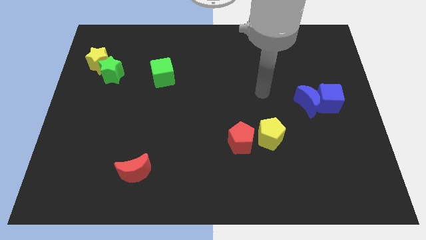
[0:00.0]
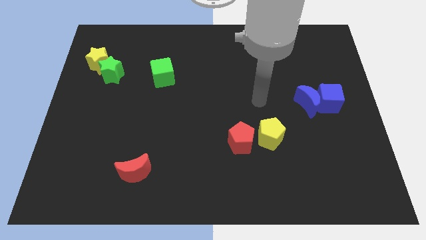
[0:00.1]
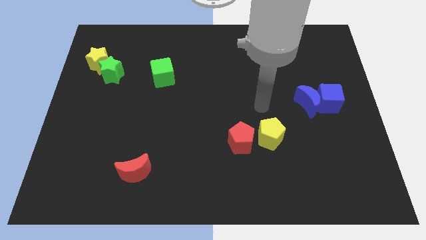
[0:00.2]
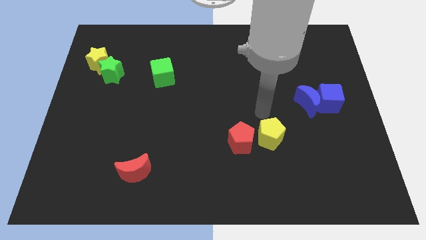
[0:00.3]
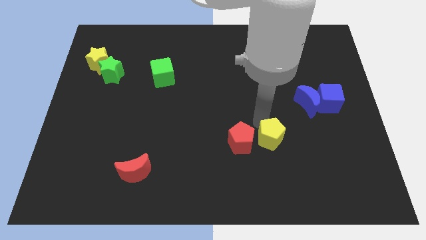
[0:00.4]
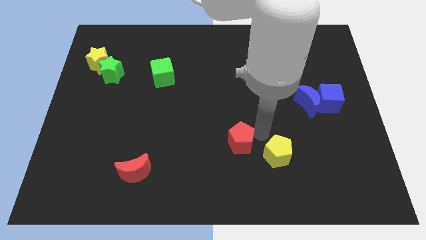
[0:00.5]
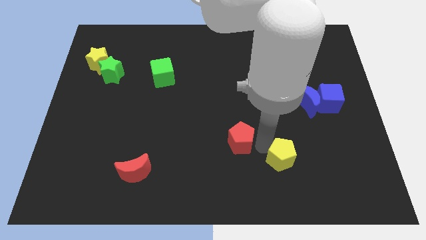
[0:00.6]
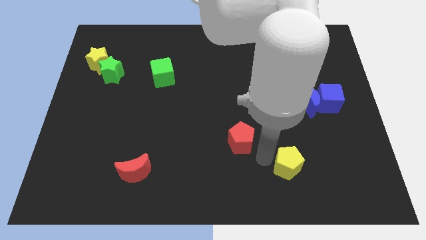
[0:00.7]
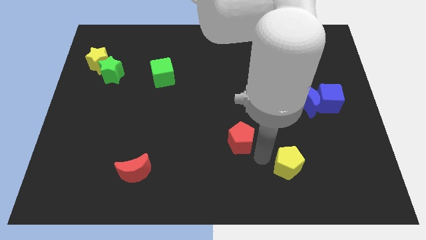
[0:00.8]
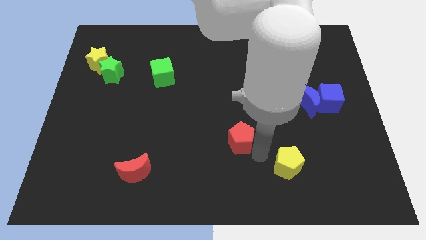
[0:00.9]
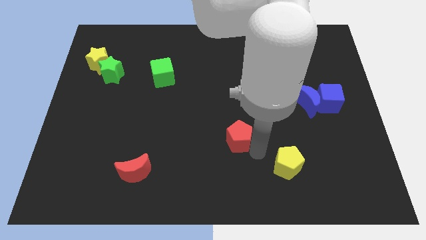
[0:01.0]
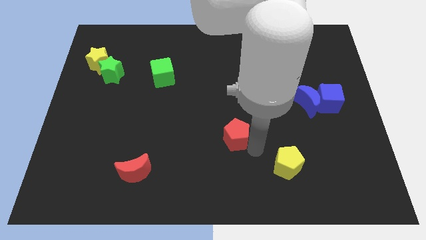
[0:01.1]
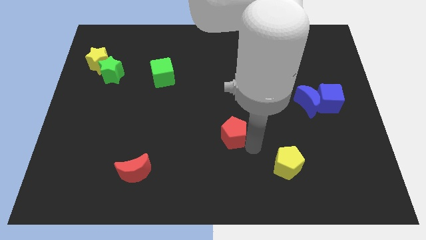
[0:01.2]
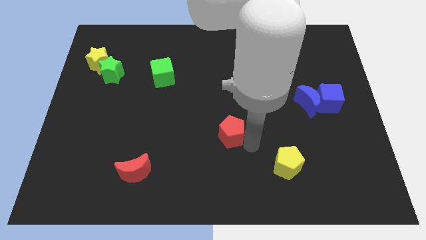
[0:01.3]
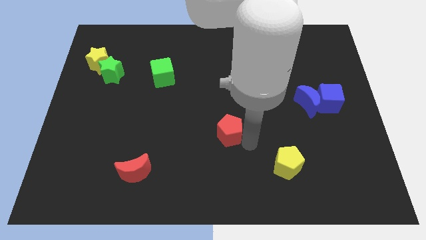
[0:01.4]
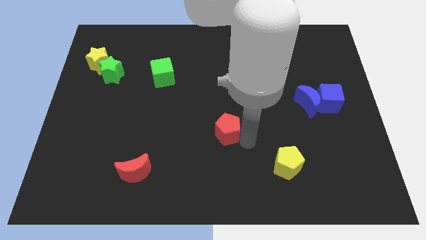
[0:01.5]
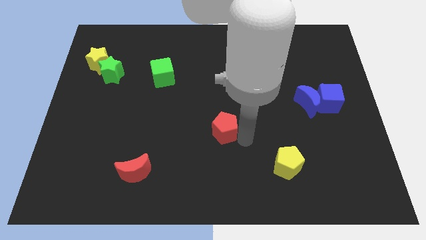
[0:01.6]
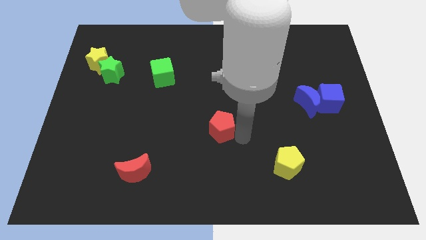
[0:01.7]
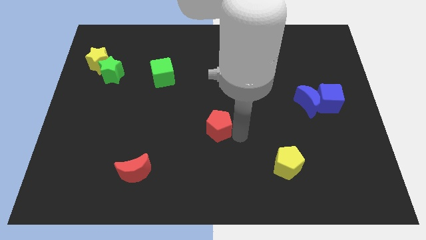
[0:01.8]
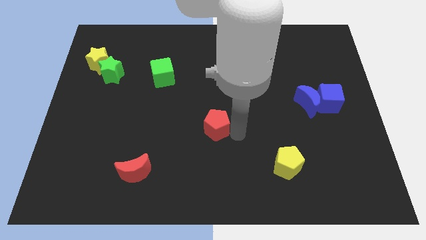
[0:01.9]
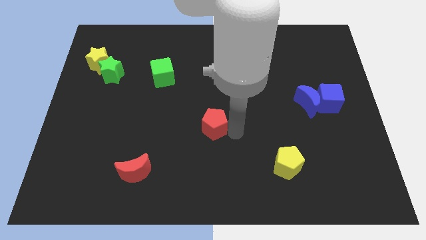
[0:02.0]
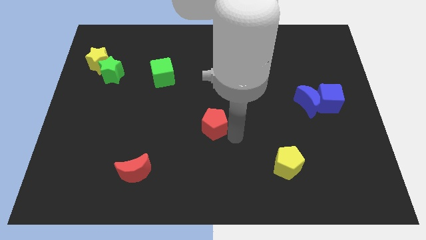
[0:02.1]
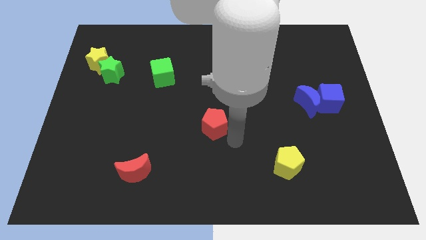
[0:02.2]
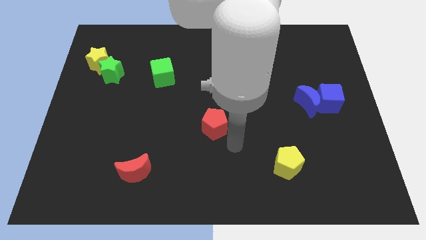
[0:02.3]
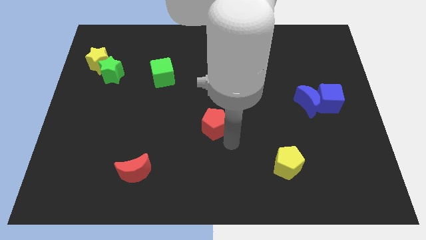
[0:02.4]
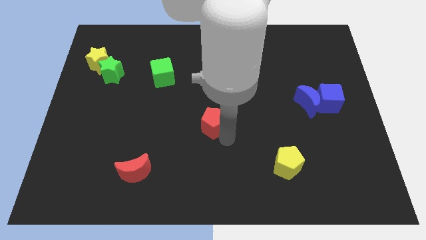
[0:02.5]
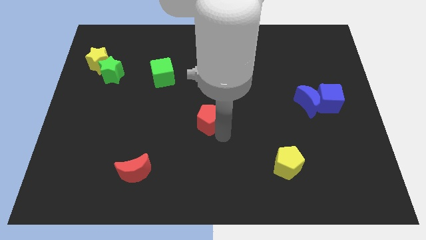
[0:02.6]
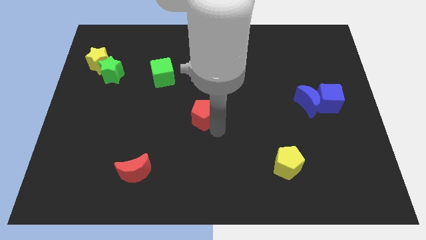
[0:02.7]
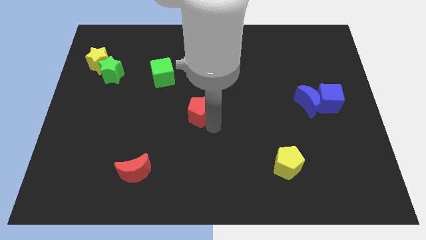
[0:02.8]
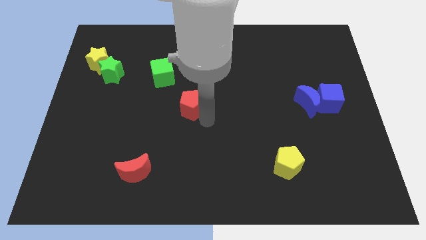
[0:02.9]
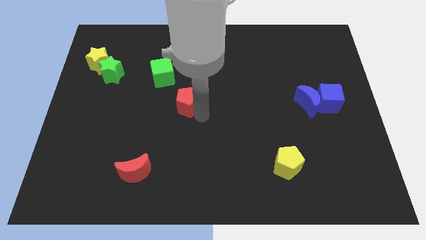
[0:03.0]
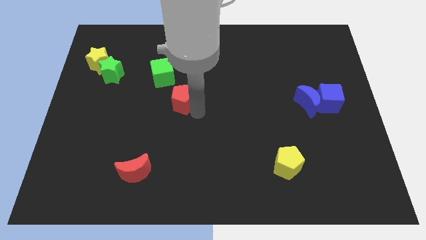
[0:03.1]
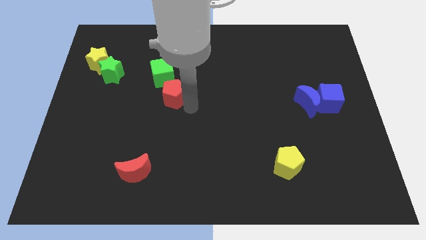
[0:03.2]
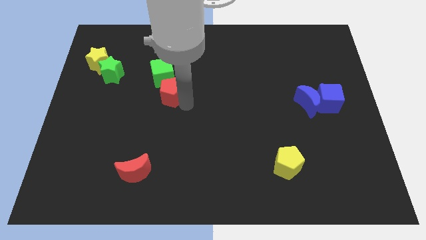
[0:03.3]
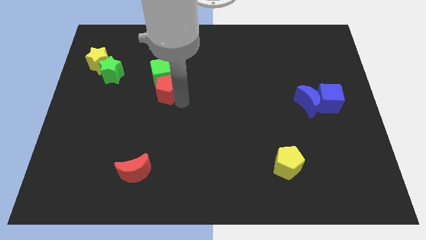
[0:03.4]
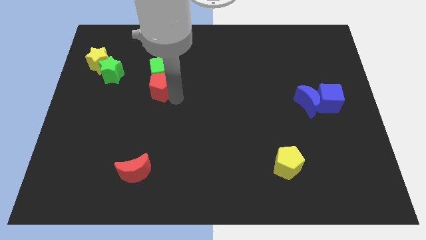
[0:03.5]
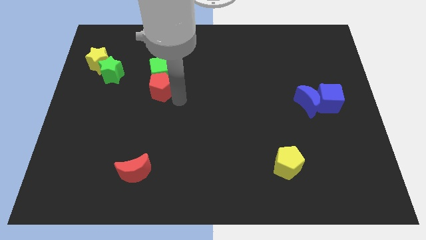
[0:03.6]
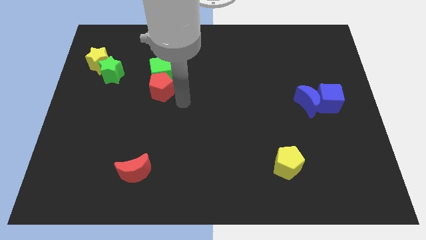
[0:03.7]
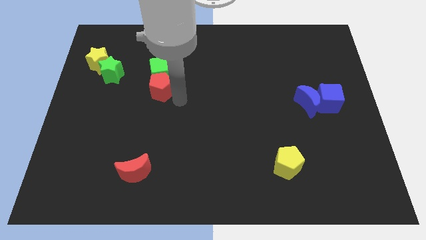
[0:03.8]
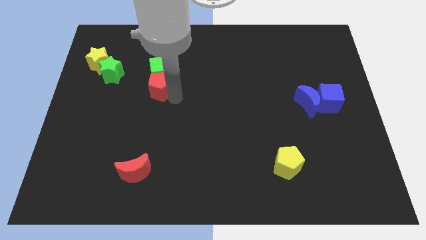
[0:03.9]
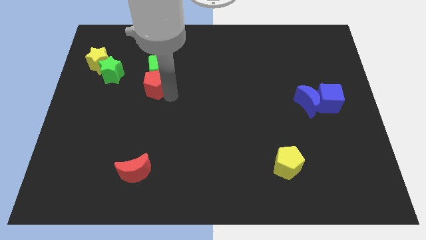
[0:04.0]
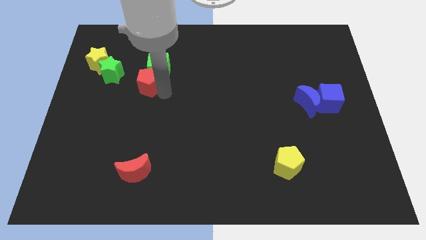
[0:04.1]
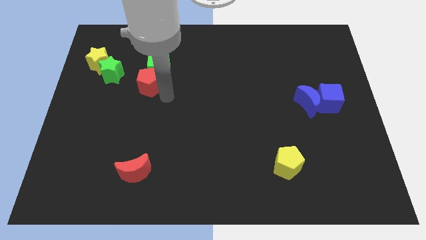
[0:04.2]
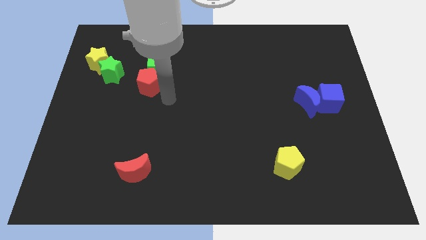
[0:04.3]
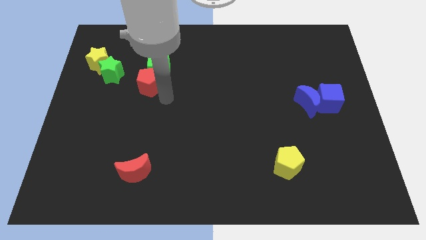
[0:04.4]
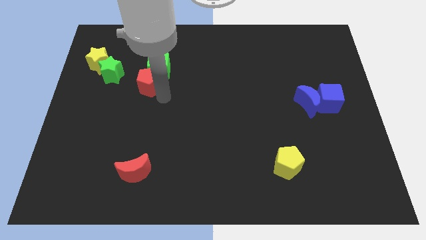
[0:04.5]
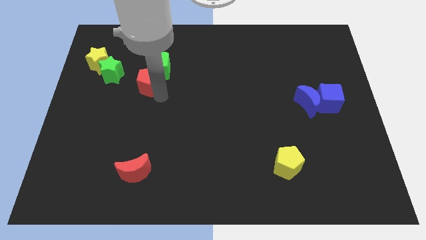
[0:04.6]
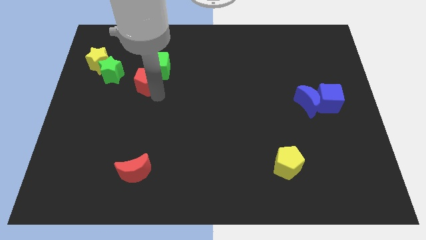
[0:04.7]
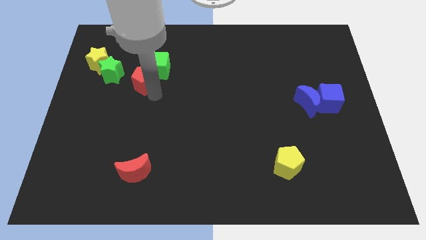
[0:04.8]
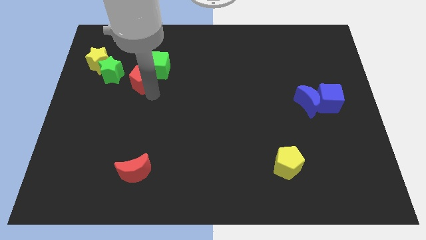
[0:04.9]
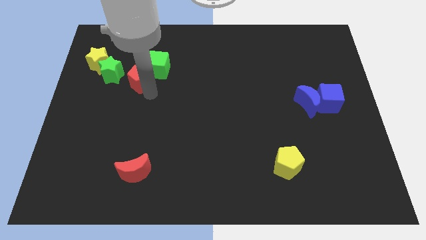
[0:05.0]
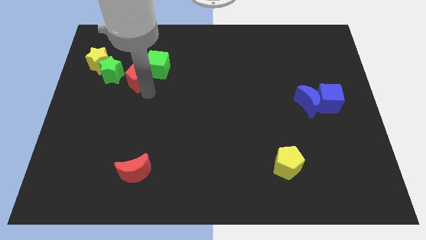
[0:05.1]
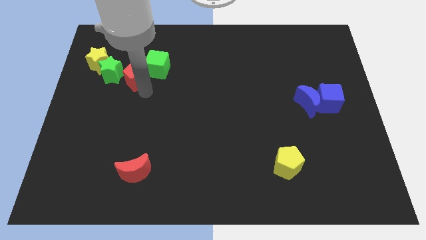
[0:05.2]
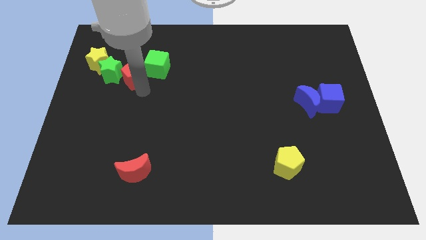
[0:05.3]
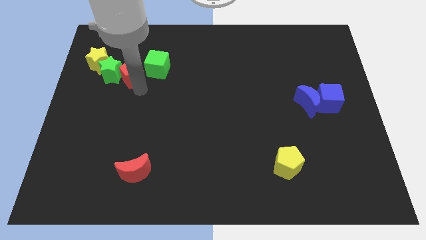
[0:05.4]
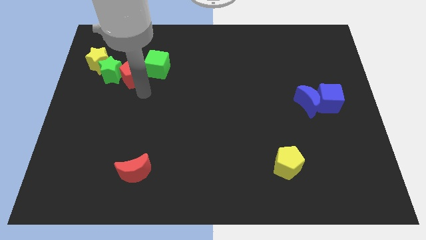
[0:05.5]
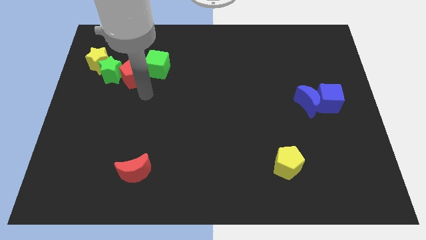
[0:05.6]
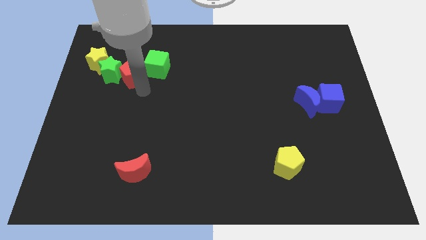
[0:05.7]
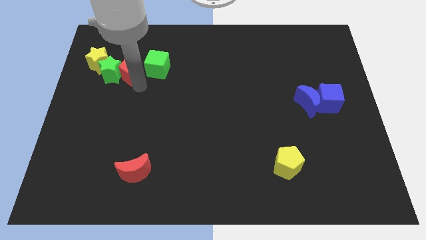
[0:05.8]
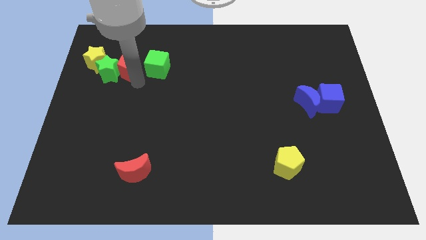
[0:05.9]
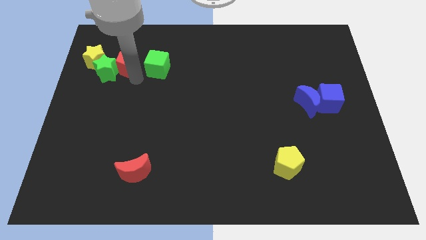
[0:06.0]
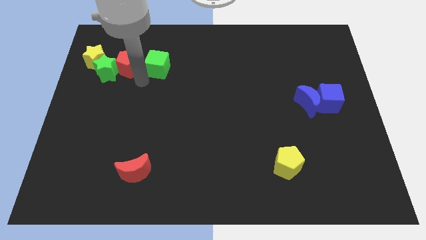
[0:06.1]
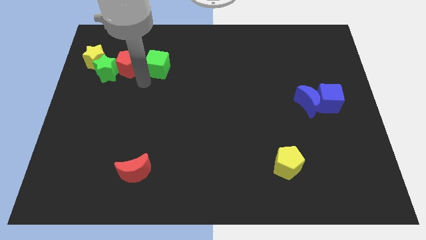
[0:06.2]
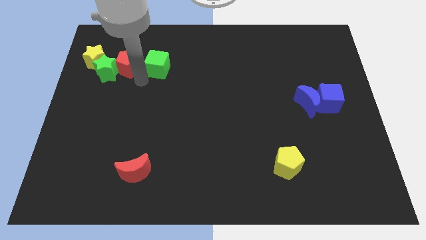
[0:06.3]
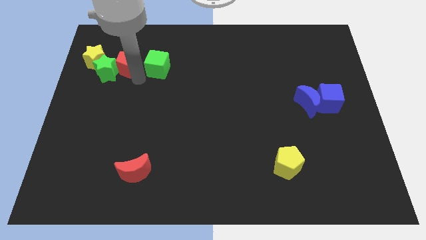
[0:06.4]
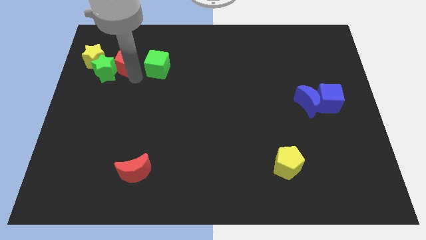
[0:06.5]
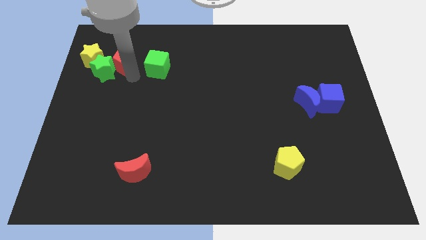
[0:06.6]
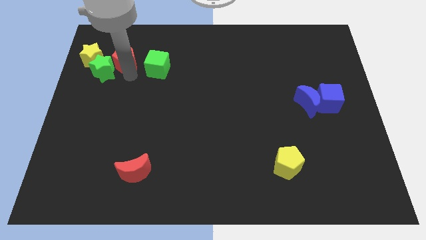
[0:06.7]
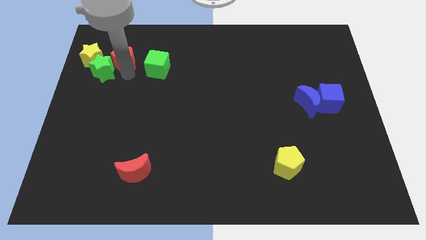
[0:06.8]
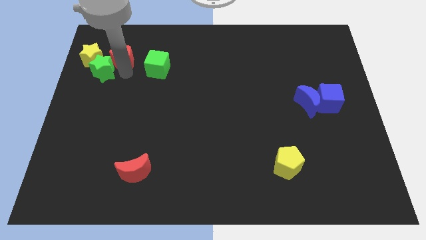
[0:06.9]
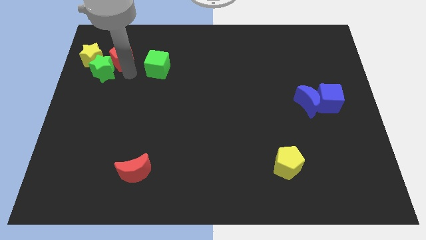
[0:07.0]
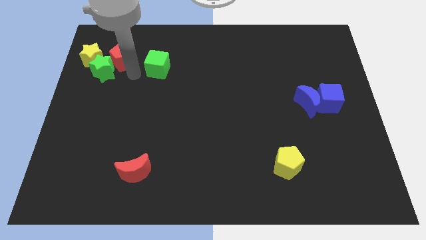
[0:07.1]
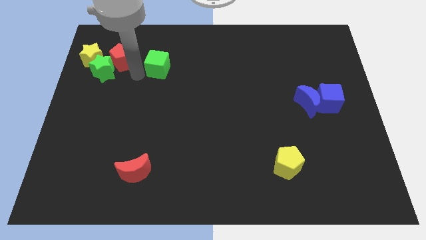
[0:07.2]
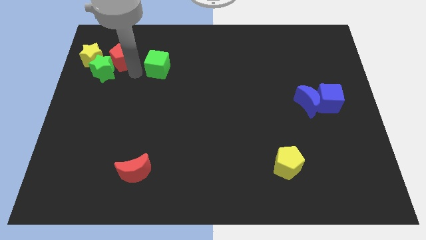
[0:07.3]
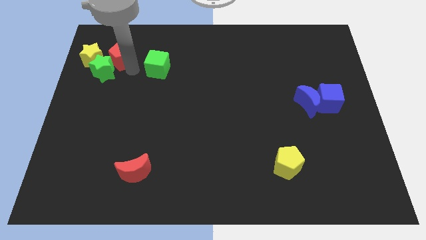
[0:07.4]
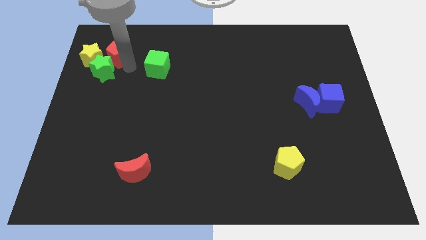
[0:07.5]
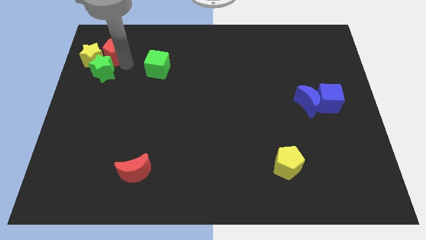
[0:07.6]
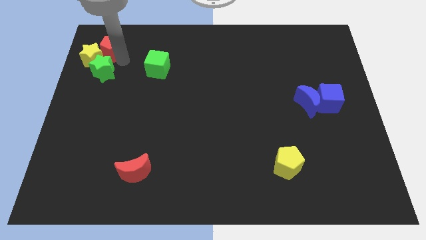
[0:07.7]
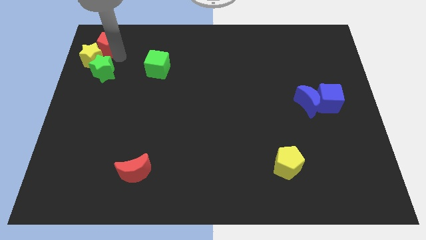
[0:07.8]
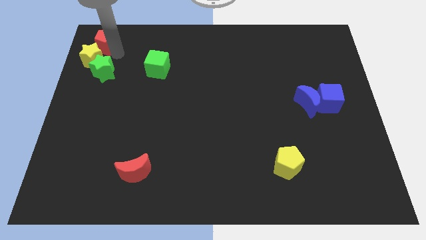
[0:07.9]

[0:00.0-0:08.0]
slide the red pentagon to the top left
